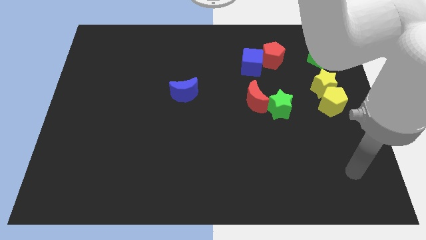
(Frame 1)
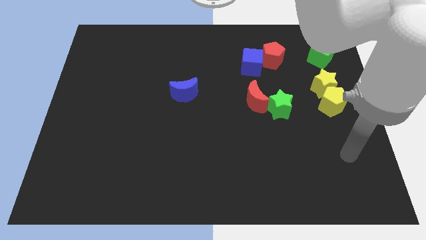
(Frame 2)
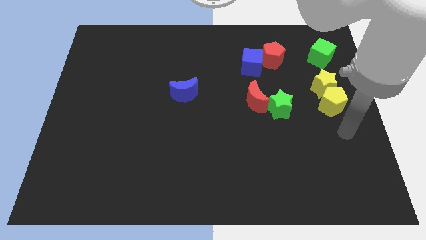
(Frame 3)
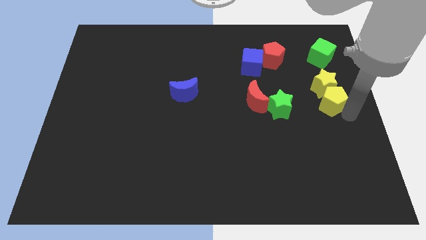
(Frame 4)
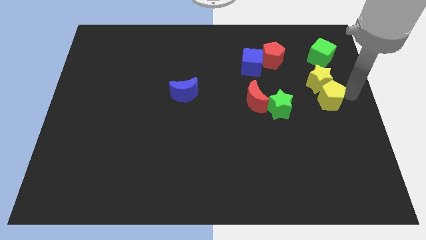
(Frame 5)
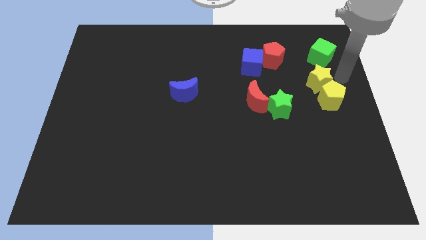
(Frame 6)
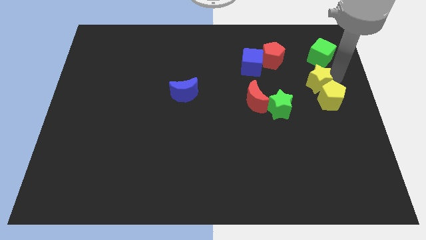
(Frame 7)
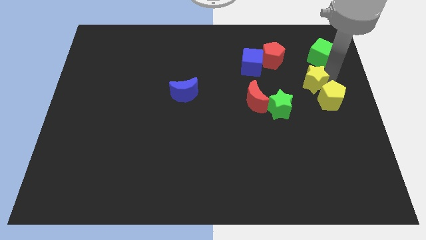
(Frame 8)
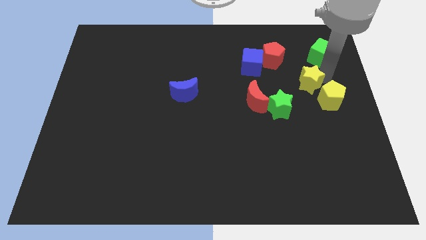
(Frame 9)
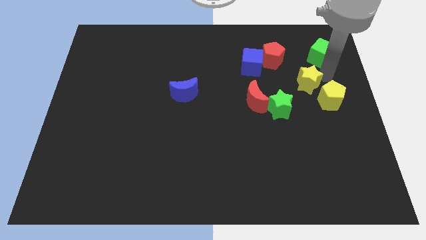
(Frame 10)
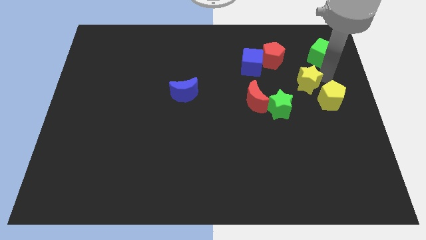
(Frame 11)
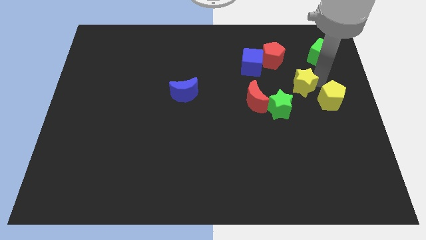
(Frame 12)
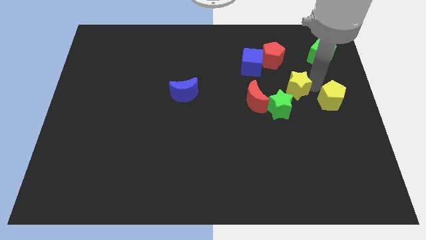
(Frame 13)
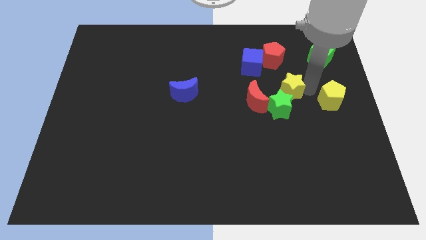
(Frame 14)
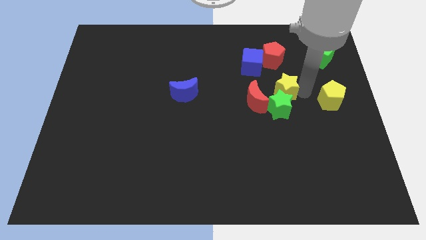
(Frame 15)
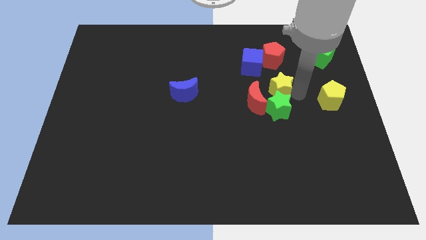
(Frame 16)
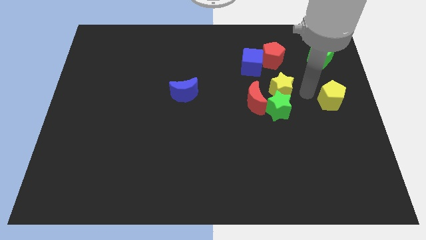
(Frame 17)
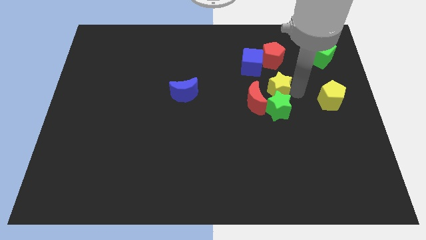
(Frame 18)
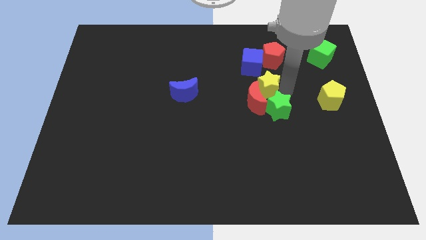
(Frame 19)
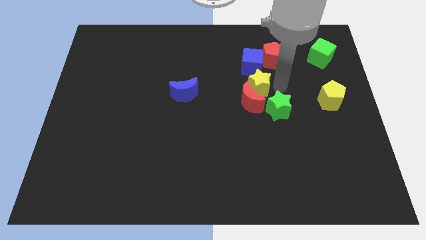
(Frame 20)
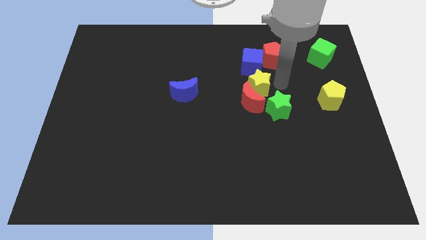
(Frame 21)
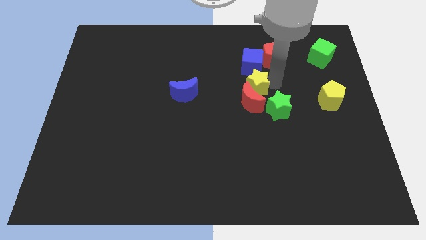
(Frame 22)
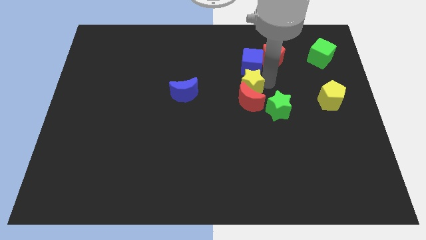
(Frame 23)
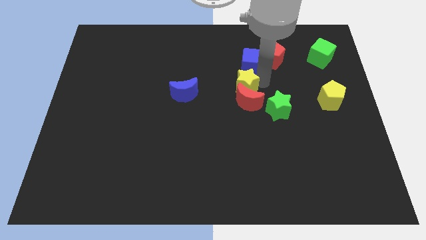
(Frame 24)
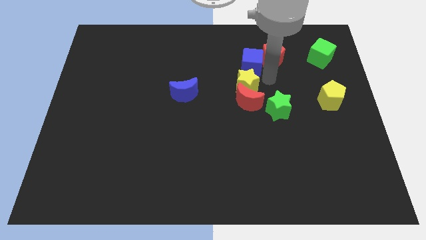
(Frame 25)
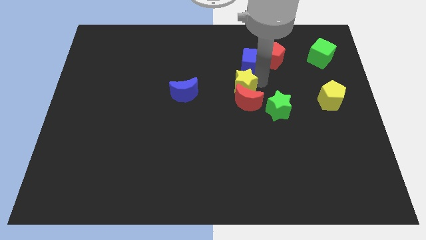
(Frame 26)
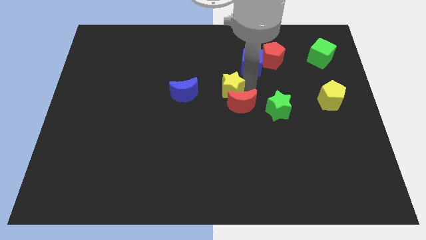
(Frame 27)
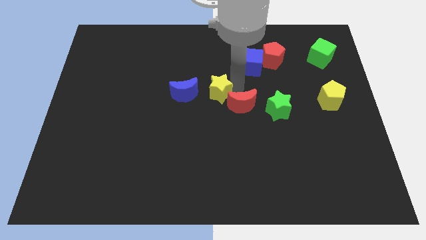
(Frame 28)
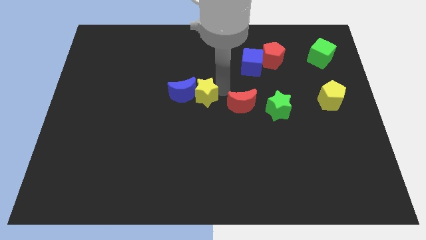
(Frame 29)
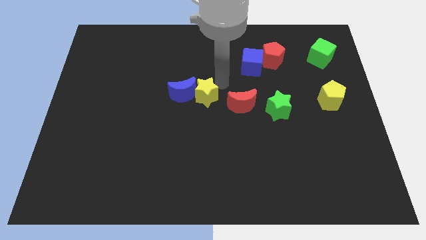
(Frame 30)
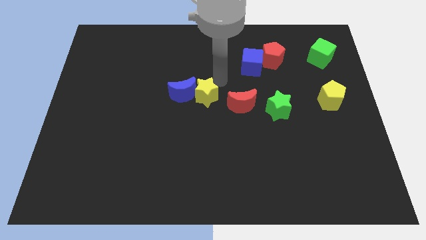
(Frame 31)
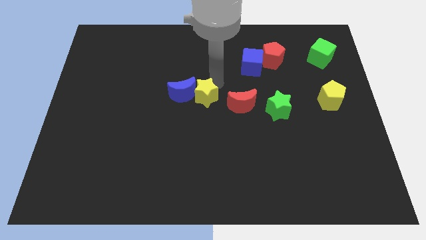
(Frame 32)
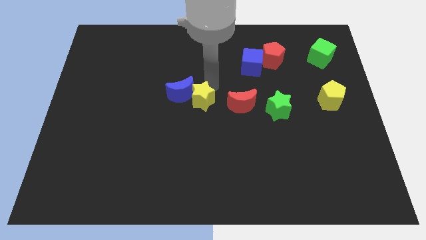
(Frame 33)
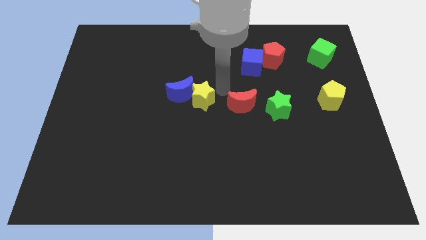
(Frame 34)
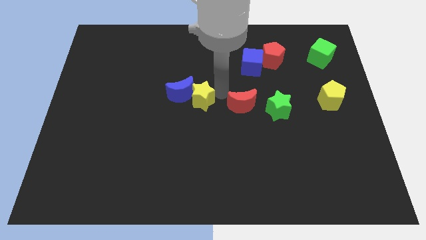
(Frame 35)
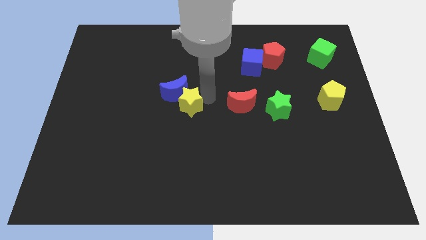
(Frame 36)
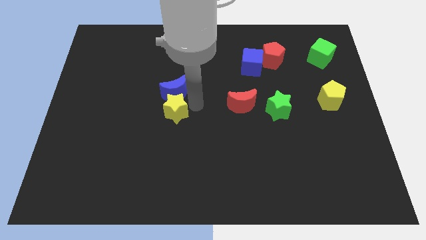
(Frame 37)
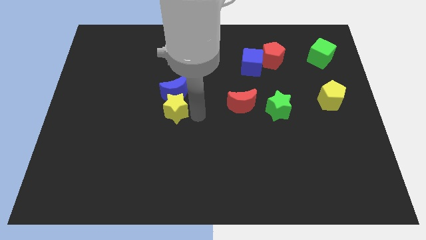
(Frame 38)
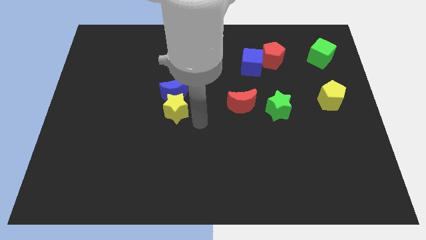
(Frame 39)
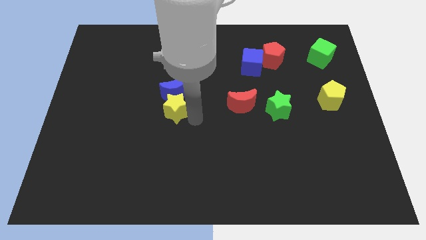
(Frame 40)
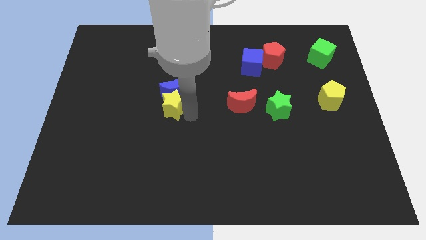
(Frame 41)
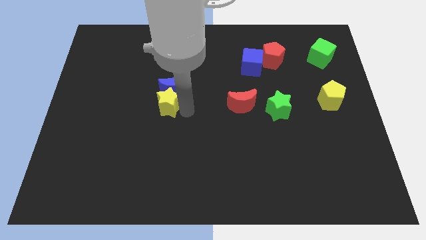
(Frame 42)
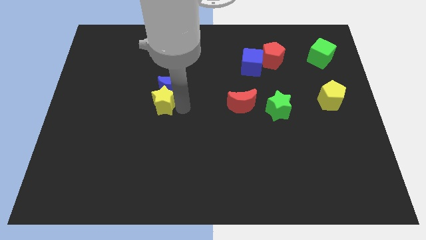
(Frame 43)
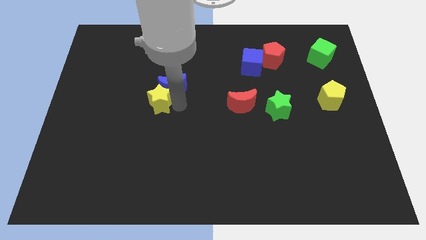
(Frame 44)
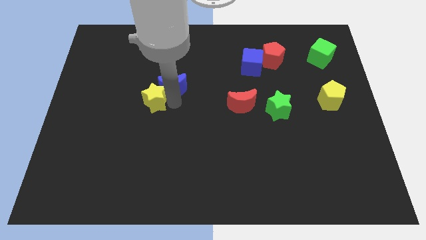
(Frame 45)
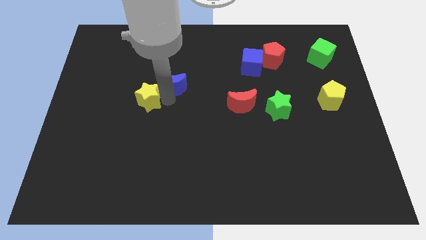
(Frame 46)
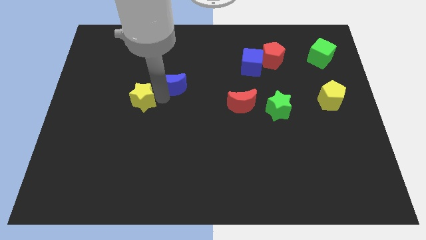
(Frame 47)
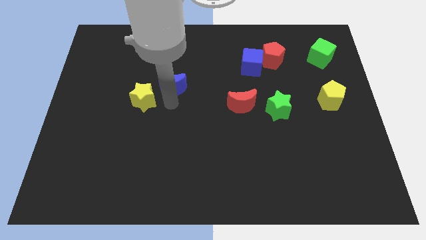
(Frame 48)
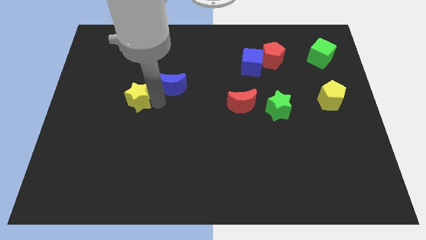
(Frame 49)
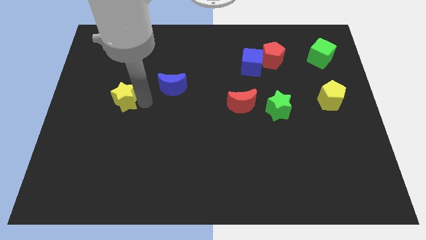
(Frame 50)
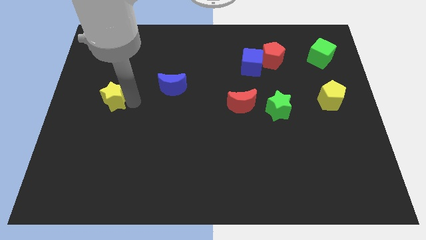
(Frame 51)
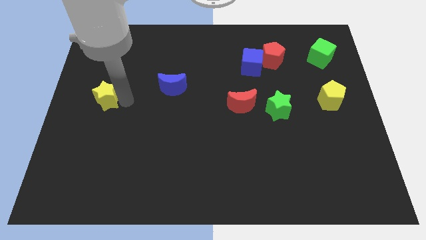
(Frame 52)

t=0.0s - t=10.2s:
slide the yellow star to the center left

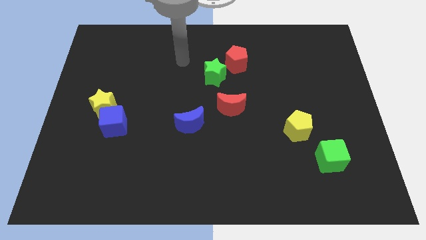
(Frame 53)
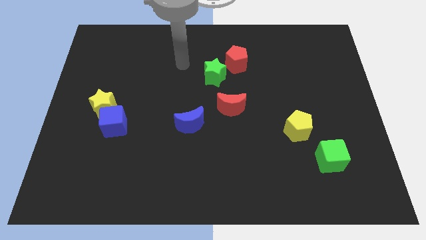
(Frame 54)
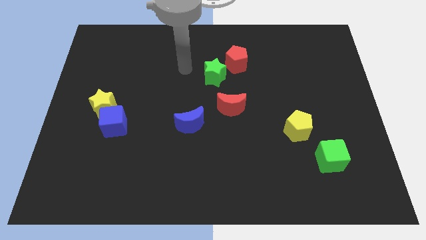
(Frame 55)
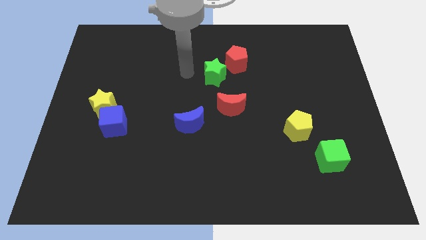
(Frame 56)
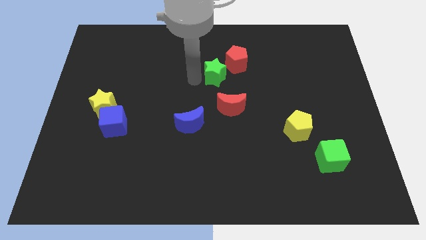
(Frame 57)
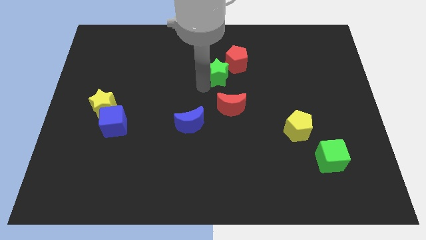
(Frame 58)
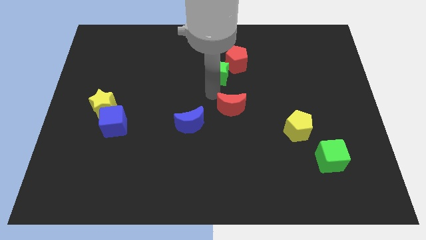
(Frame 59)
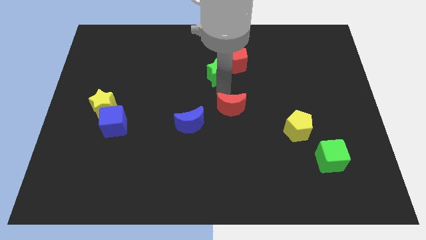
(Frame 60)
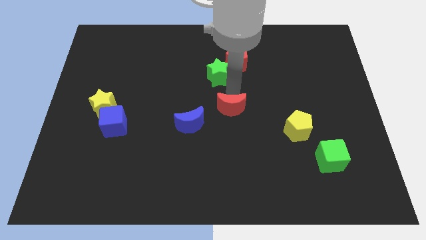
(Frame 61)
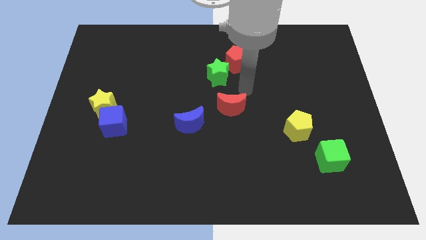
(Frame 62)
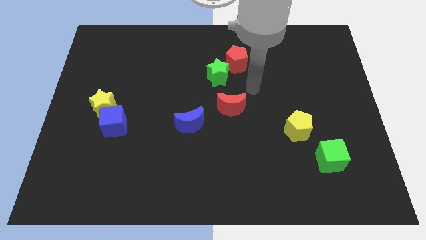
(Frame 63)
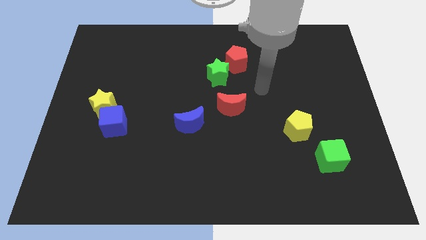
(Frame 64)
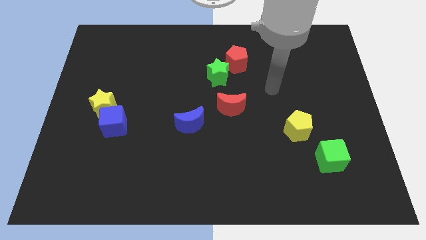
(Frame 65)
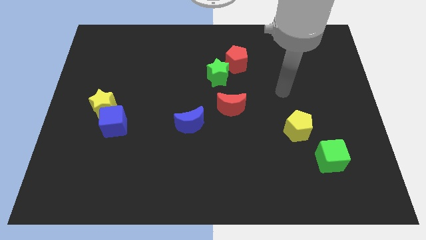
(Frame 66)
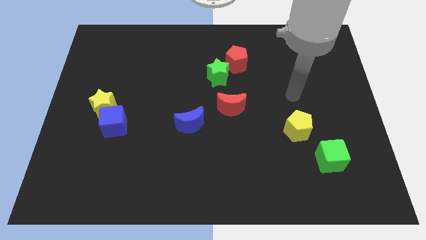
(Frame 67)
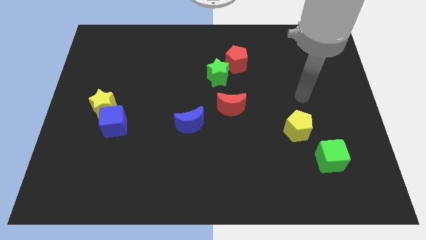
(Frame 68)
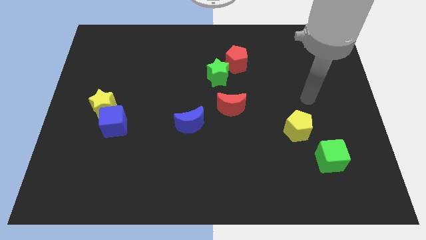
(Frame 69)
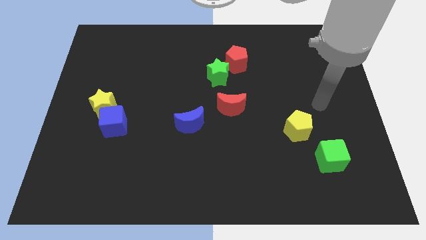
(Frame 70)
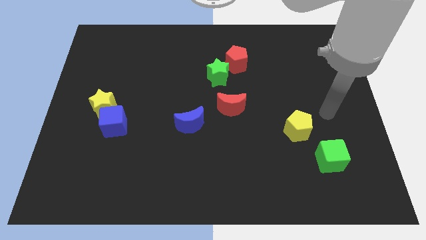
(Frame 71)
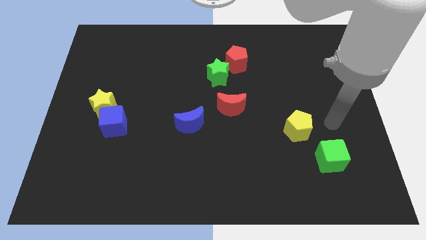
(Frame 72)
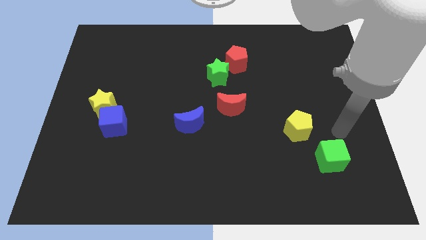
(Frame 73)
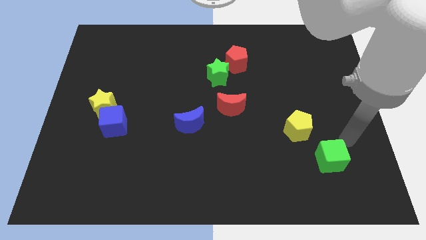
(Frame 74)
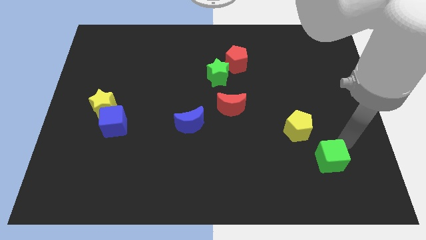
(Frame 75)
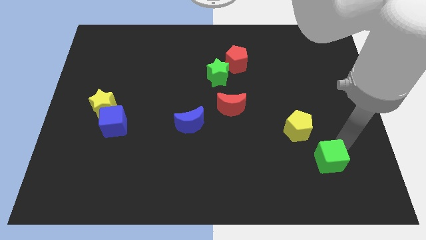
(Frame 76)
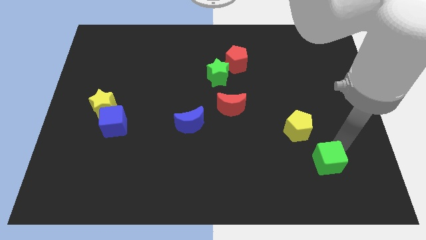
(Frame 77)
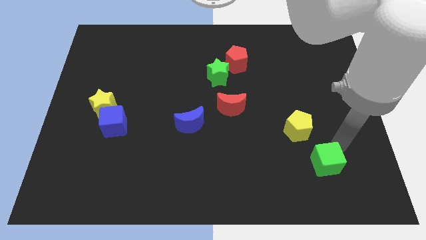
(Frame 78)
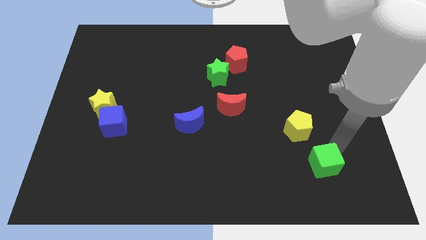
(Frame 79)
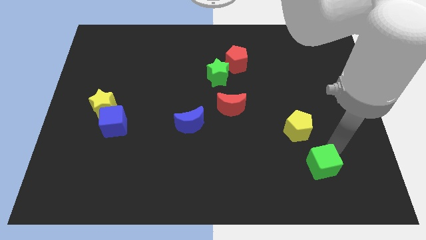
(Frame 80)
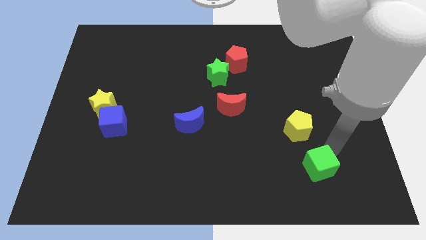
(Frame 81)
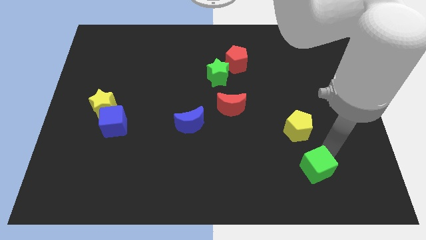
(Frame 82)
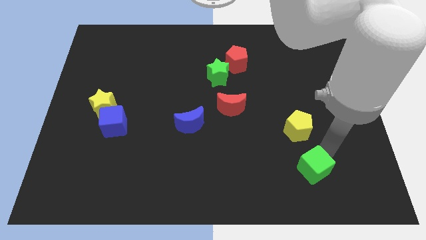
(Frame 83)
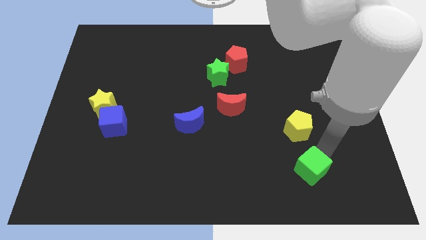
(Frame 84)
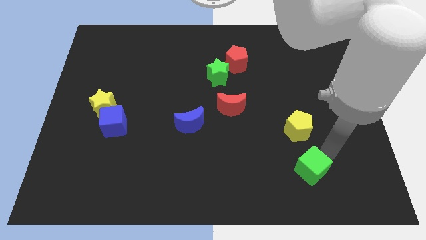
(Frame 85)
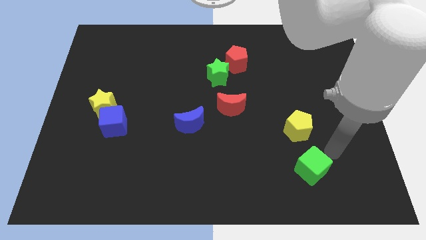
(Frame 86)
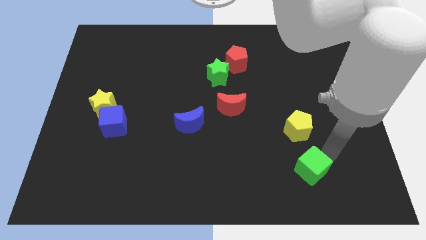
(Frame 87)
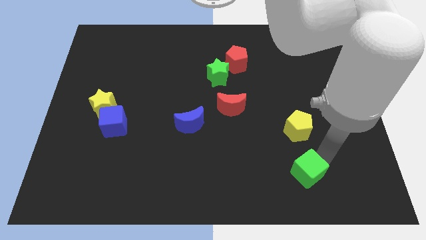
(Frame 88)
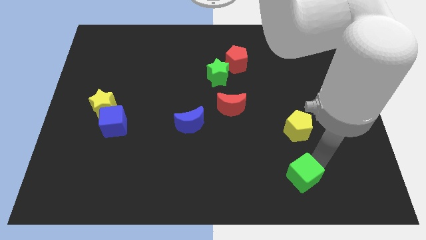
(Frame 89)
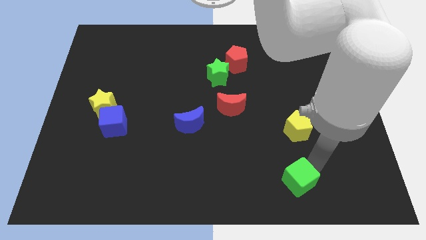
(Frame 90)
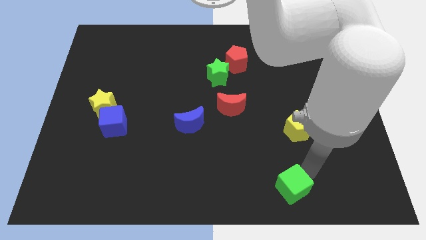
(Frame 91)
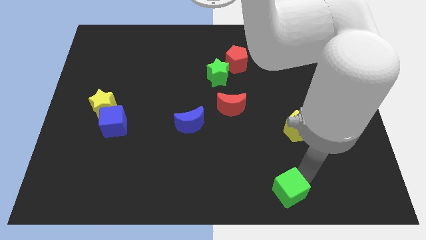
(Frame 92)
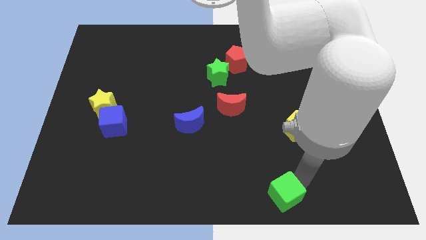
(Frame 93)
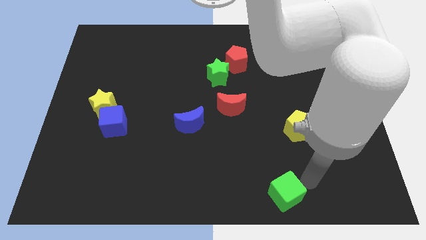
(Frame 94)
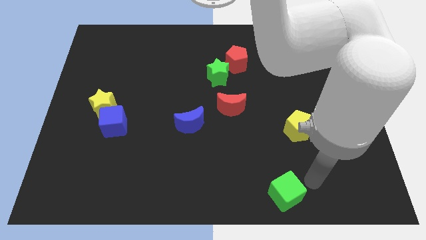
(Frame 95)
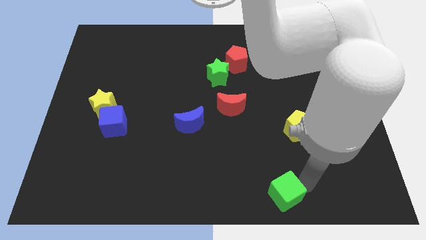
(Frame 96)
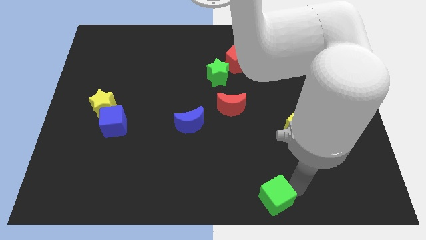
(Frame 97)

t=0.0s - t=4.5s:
push the green cube to the bottom side
